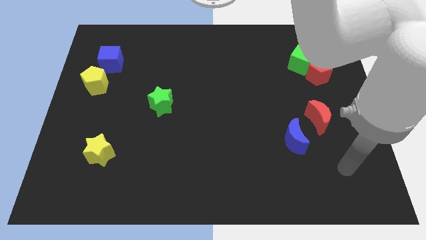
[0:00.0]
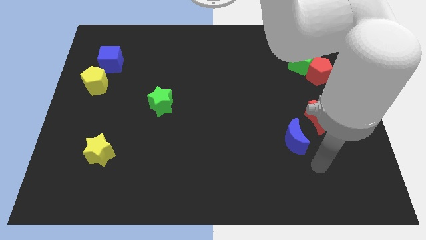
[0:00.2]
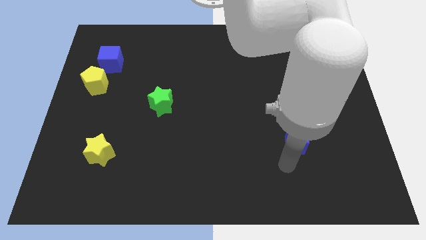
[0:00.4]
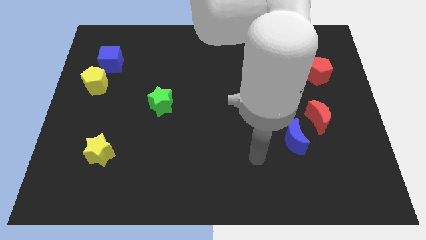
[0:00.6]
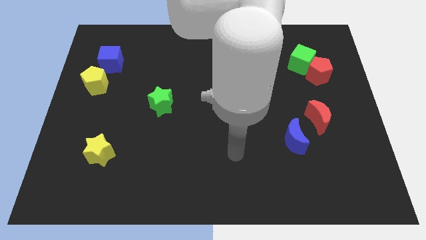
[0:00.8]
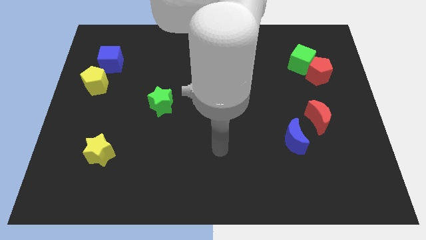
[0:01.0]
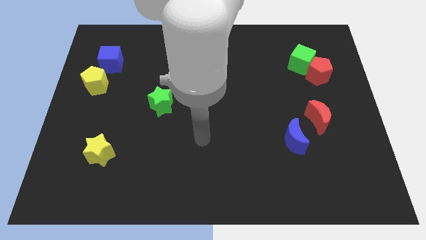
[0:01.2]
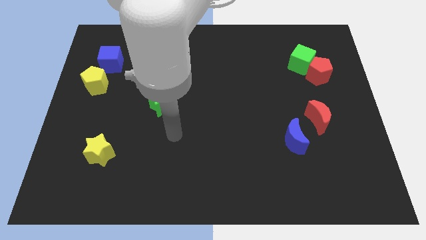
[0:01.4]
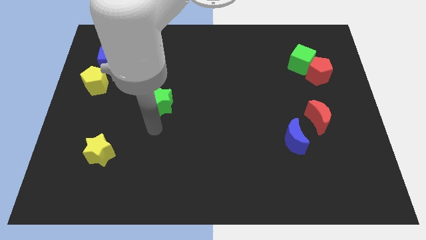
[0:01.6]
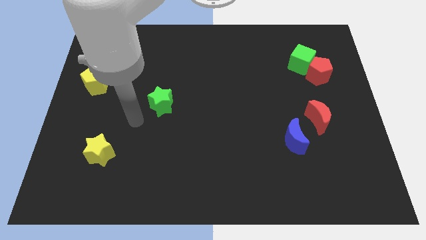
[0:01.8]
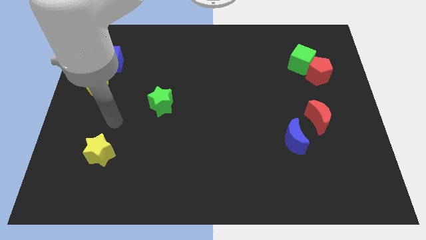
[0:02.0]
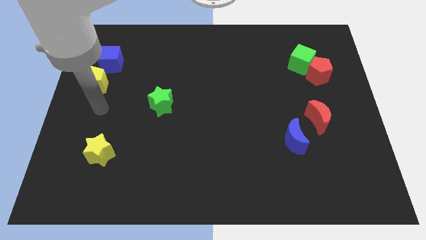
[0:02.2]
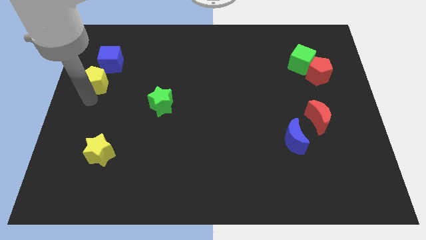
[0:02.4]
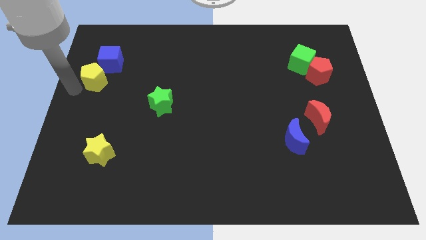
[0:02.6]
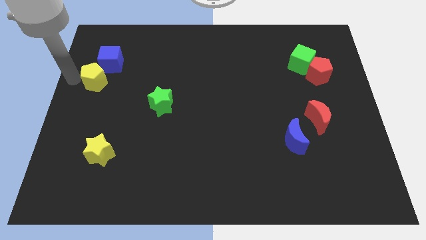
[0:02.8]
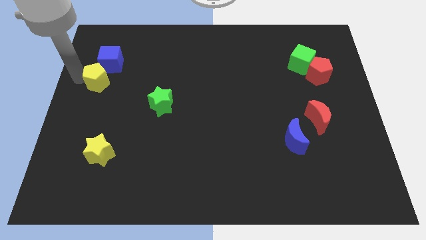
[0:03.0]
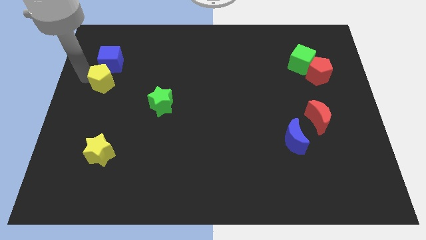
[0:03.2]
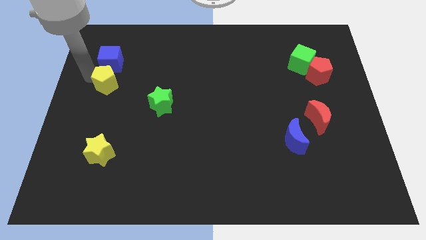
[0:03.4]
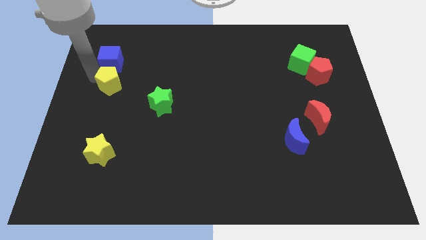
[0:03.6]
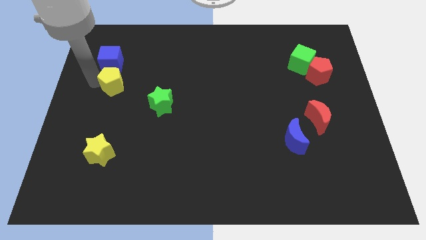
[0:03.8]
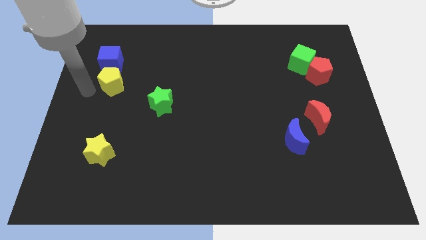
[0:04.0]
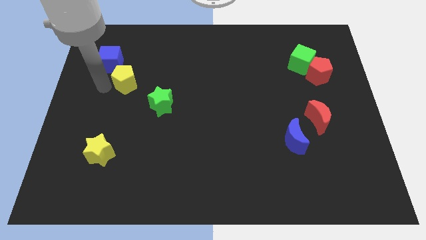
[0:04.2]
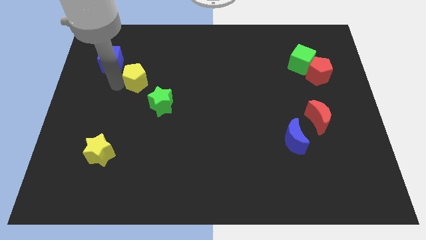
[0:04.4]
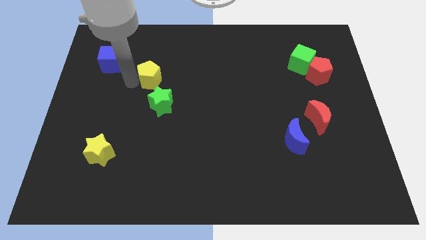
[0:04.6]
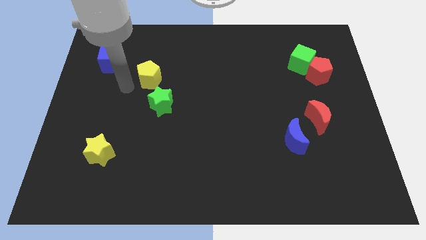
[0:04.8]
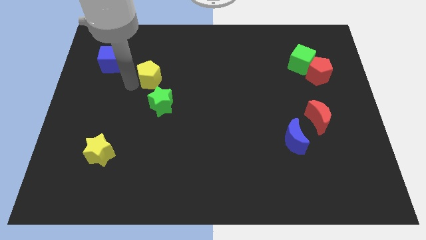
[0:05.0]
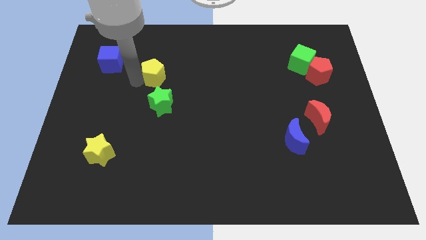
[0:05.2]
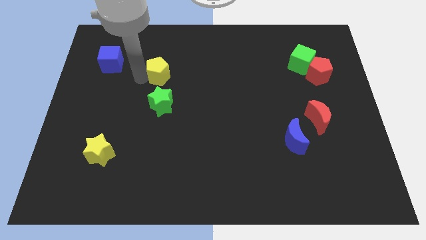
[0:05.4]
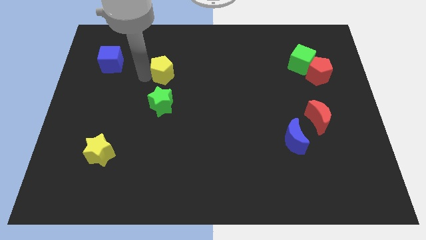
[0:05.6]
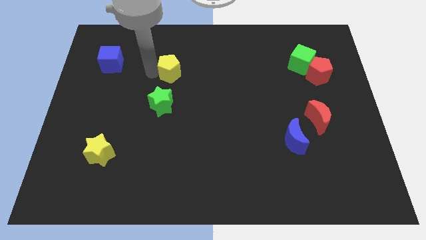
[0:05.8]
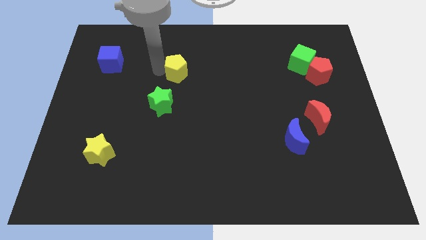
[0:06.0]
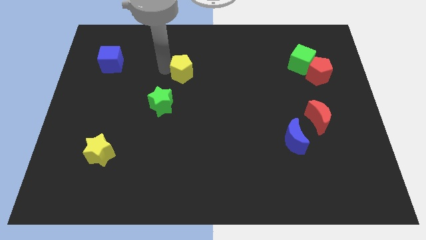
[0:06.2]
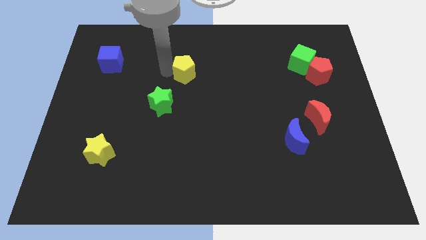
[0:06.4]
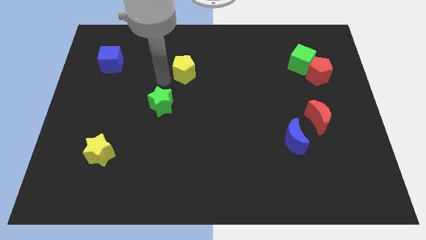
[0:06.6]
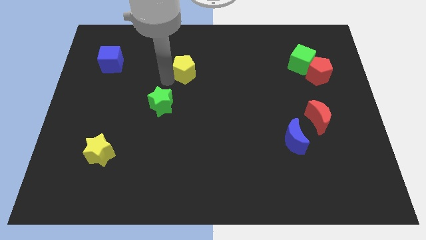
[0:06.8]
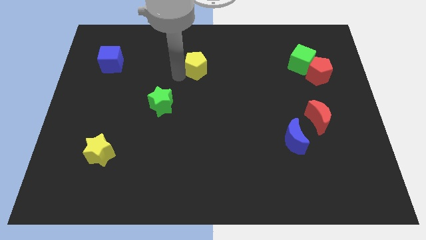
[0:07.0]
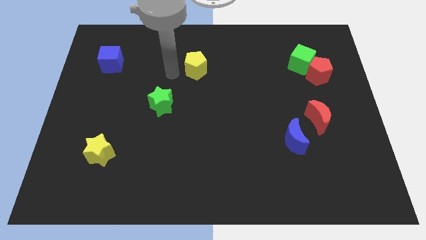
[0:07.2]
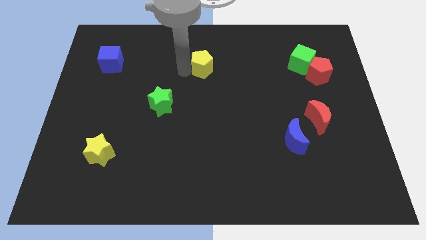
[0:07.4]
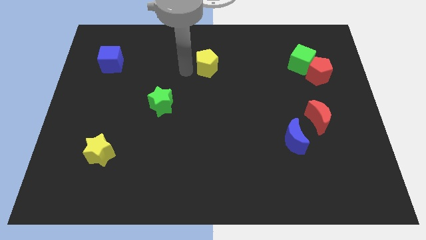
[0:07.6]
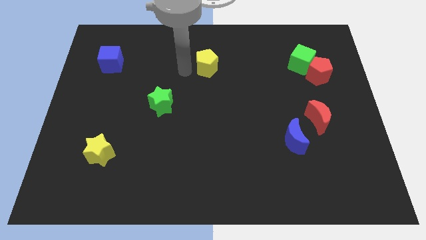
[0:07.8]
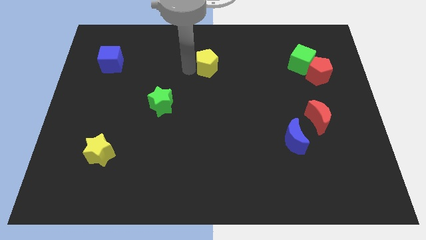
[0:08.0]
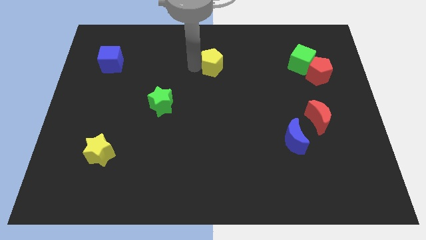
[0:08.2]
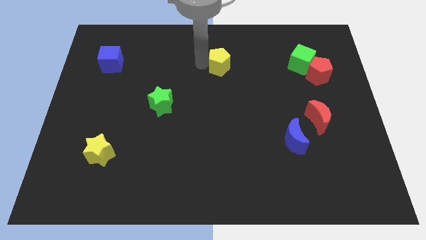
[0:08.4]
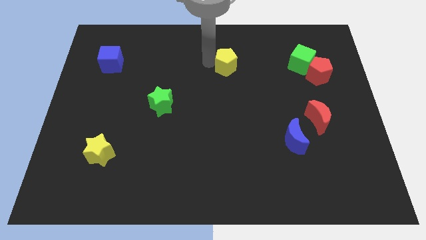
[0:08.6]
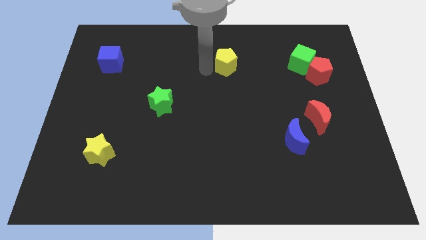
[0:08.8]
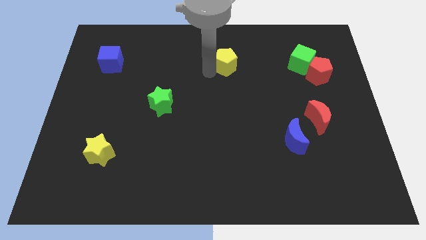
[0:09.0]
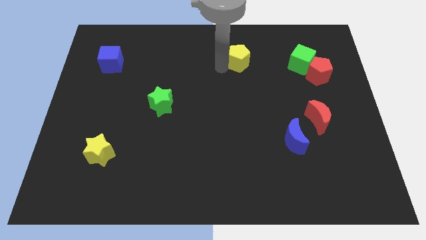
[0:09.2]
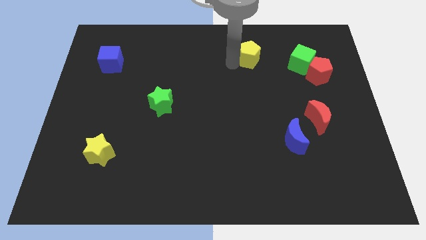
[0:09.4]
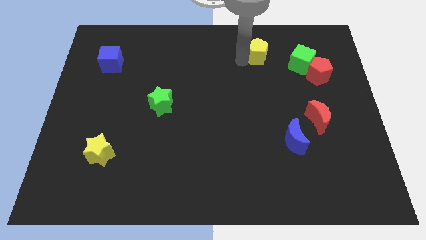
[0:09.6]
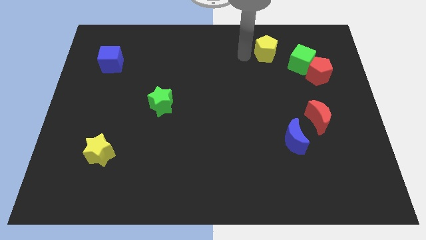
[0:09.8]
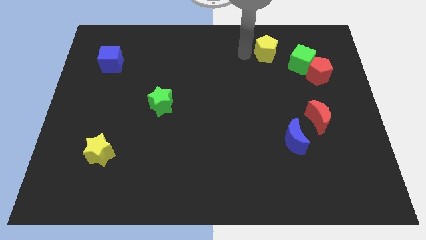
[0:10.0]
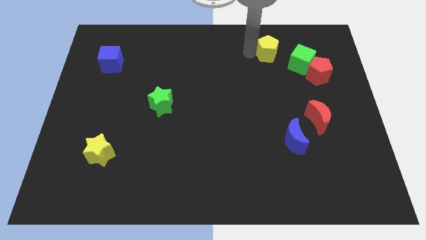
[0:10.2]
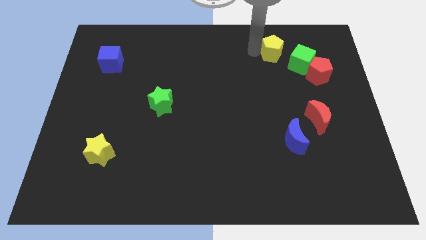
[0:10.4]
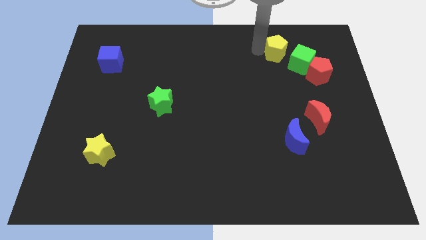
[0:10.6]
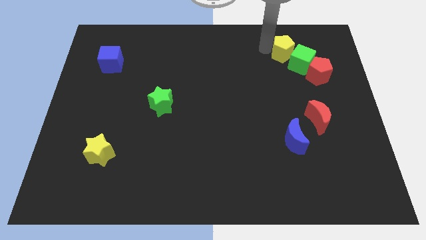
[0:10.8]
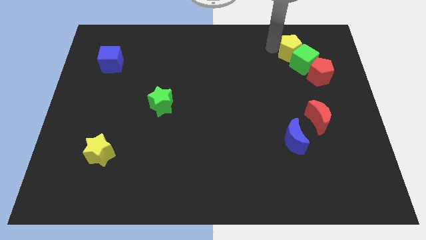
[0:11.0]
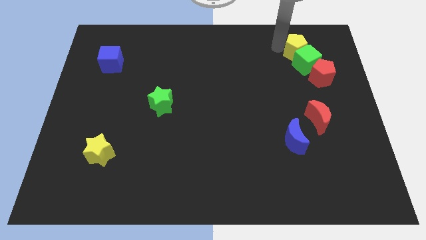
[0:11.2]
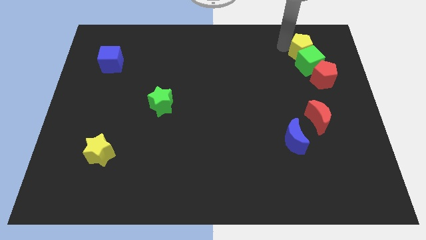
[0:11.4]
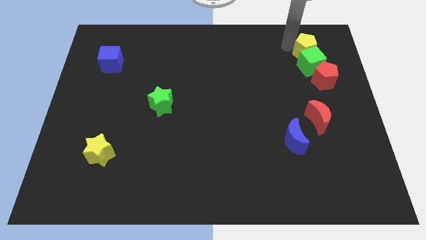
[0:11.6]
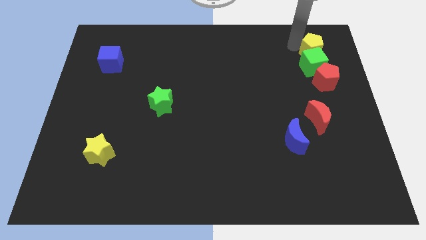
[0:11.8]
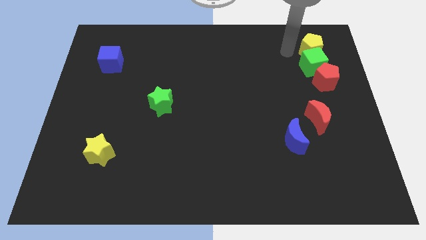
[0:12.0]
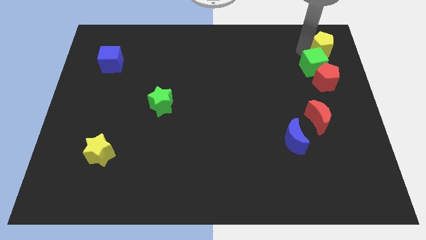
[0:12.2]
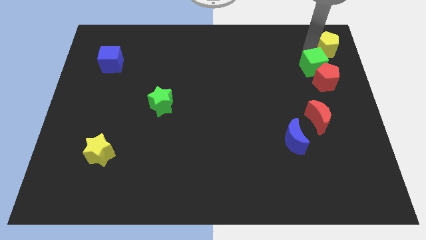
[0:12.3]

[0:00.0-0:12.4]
put the yellow pentagon to the top right of the board

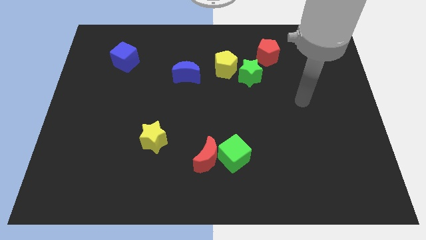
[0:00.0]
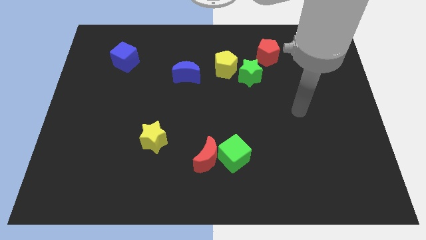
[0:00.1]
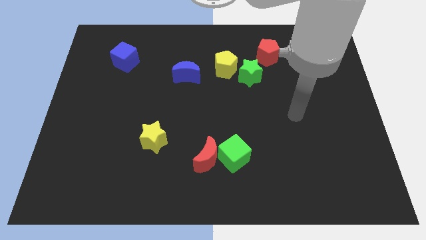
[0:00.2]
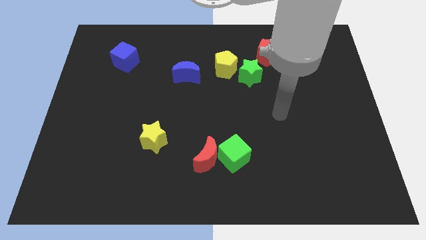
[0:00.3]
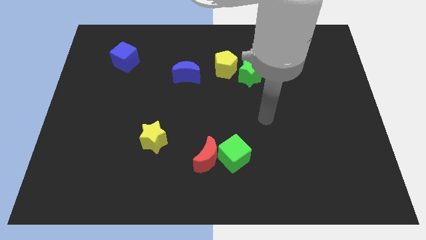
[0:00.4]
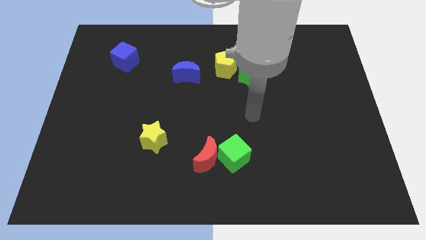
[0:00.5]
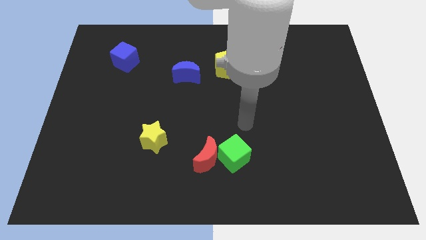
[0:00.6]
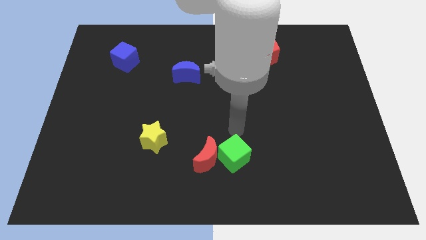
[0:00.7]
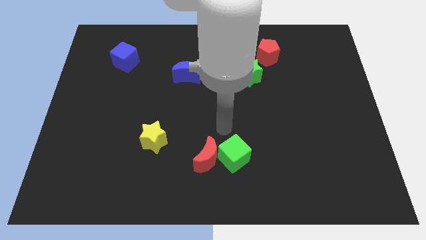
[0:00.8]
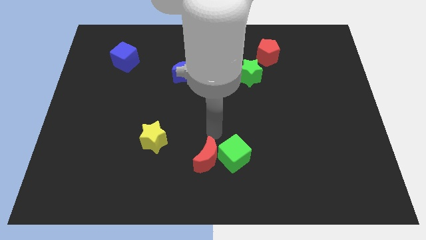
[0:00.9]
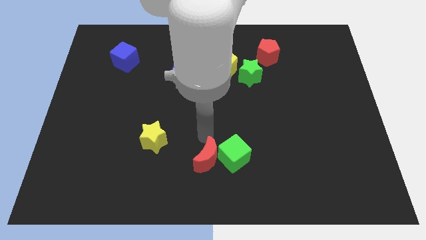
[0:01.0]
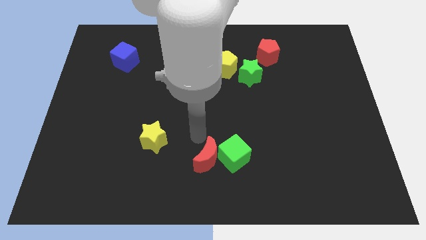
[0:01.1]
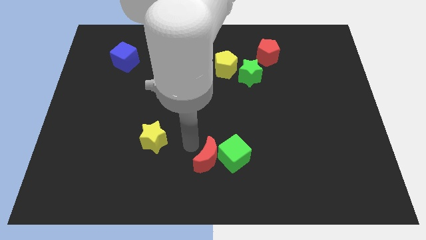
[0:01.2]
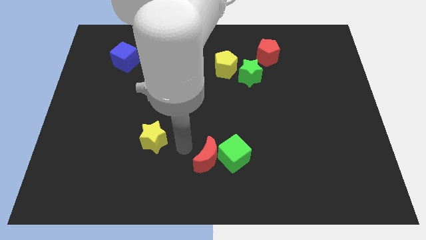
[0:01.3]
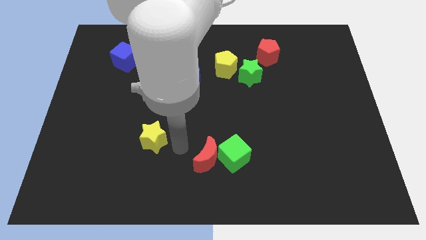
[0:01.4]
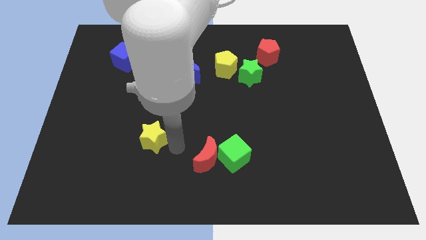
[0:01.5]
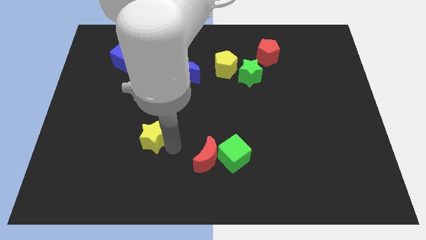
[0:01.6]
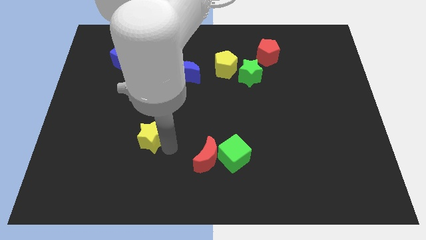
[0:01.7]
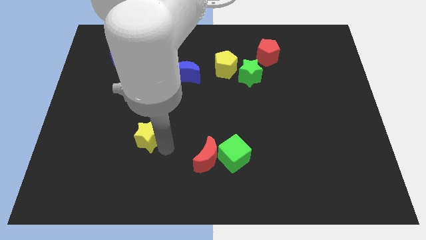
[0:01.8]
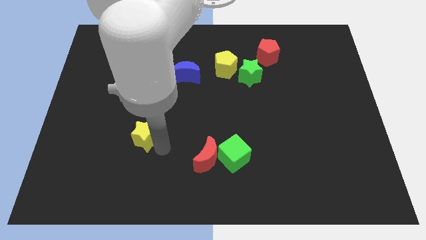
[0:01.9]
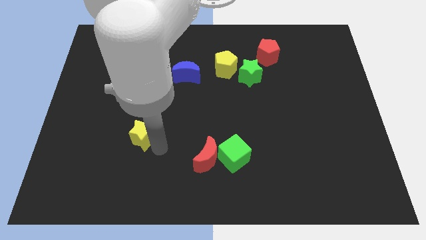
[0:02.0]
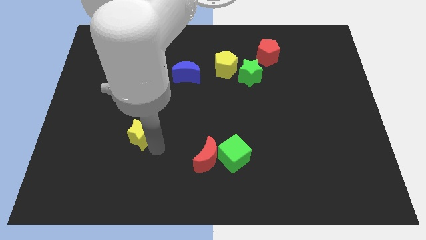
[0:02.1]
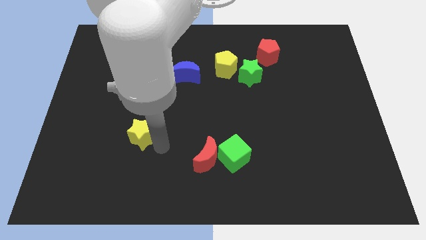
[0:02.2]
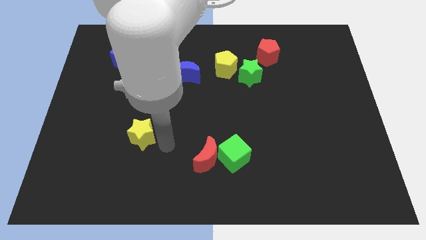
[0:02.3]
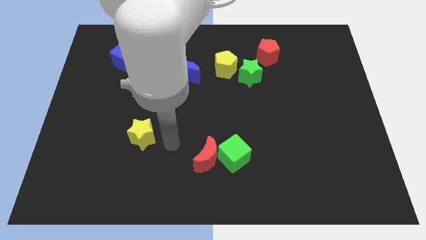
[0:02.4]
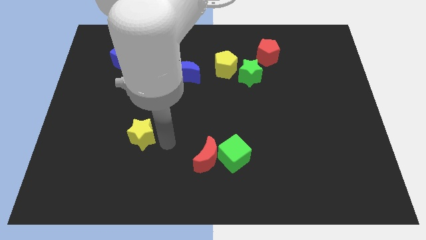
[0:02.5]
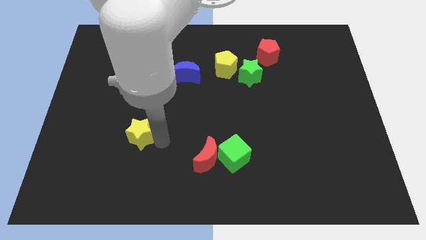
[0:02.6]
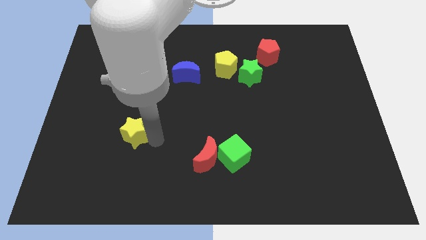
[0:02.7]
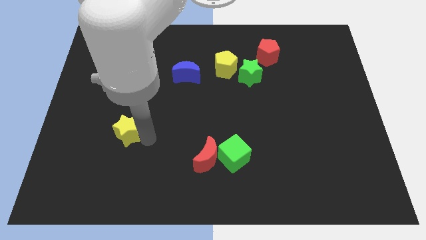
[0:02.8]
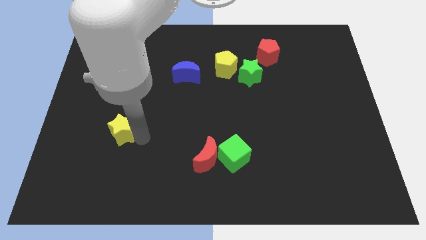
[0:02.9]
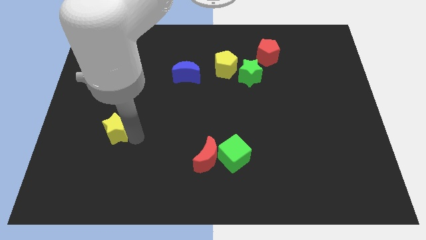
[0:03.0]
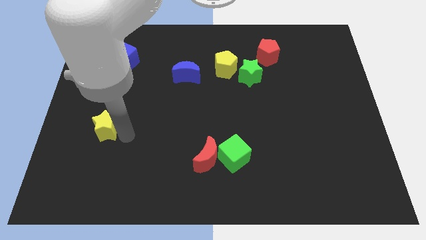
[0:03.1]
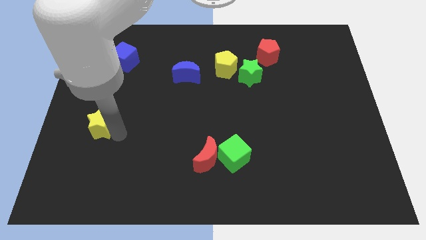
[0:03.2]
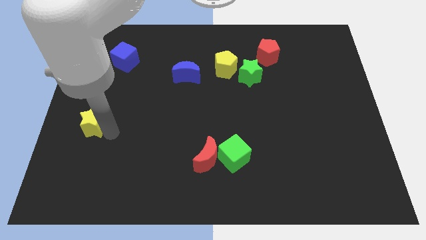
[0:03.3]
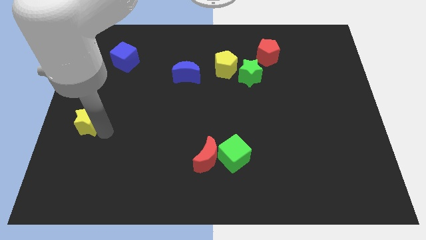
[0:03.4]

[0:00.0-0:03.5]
slide the yellow star to the center left
